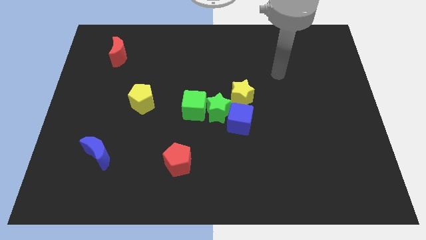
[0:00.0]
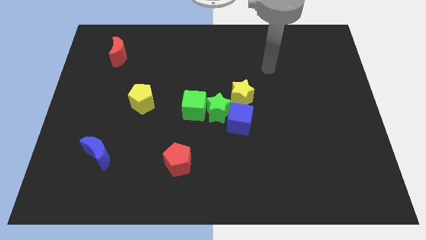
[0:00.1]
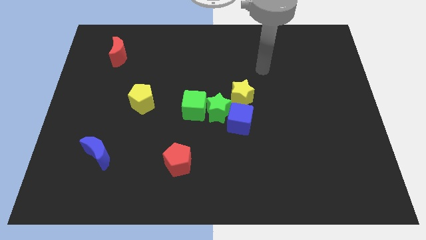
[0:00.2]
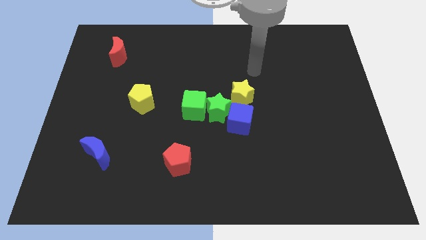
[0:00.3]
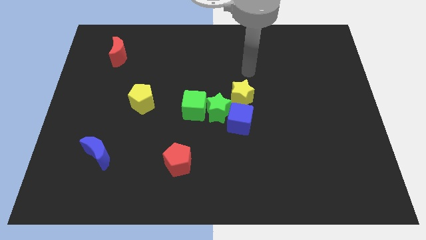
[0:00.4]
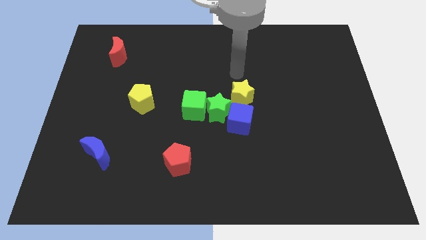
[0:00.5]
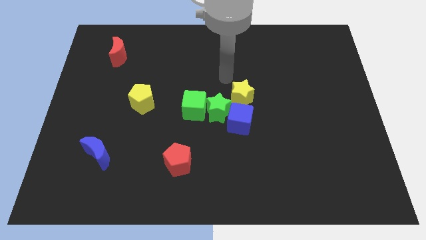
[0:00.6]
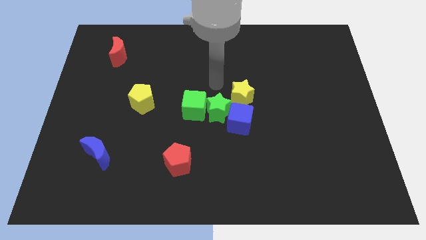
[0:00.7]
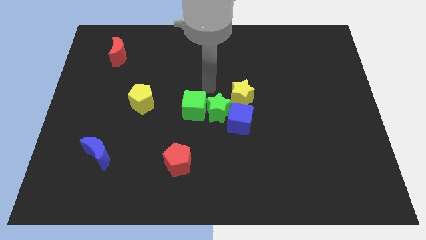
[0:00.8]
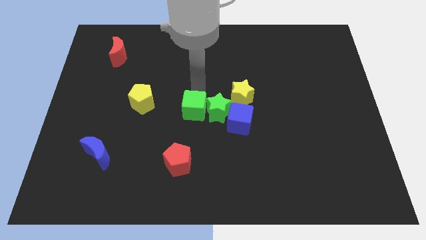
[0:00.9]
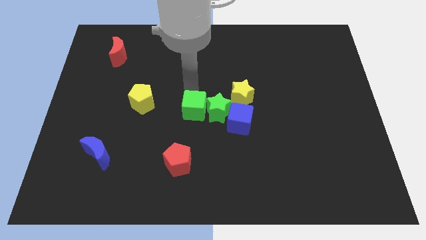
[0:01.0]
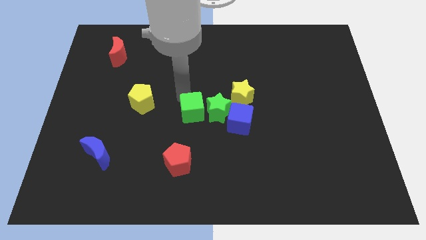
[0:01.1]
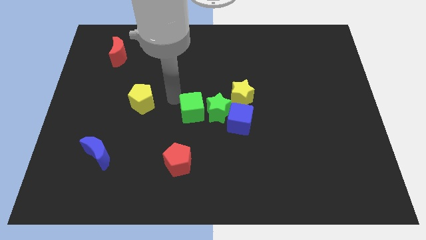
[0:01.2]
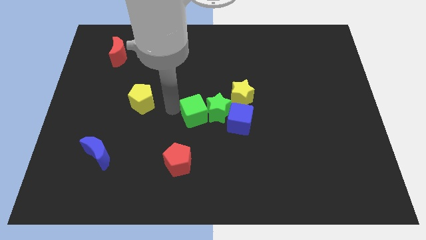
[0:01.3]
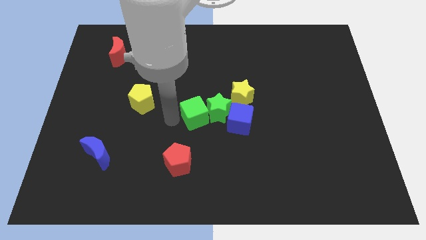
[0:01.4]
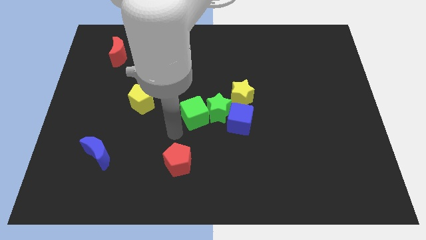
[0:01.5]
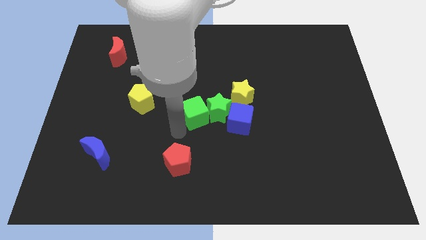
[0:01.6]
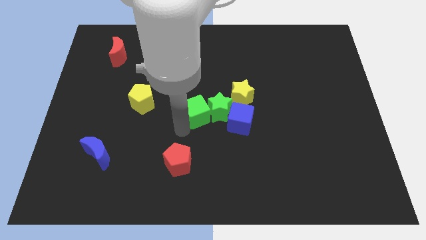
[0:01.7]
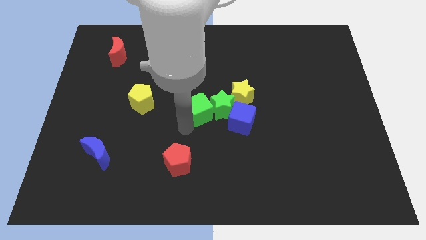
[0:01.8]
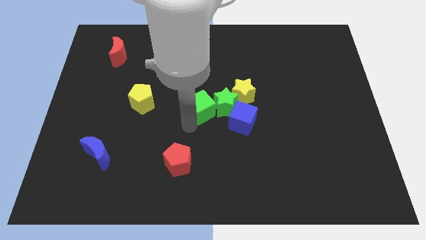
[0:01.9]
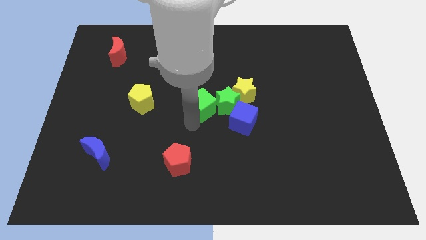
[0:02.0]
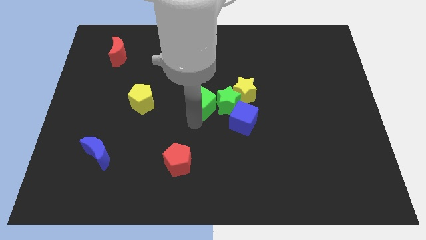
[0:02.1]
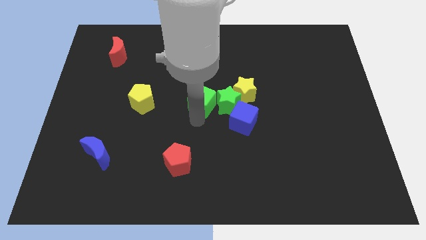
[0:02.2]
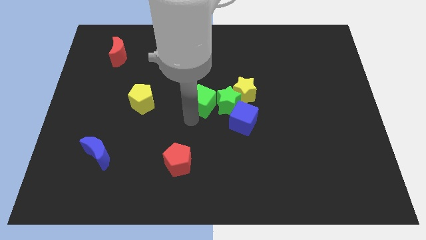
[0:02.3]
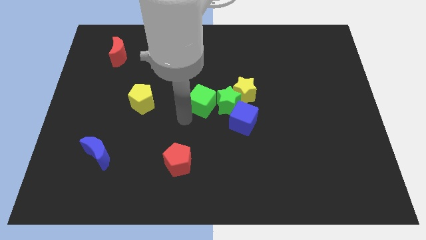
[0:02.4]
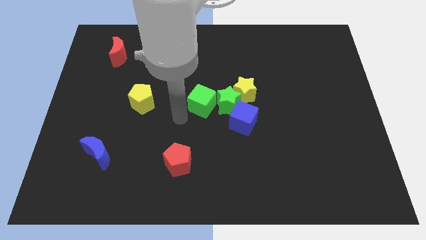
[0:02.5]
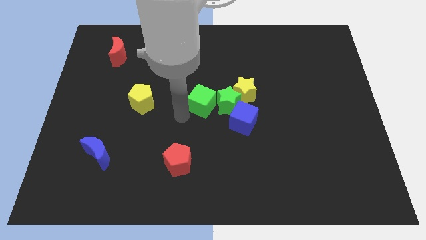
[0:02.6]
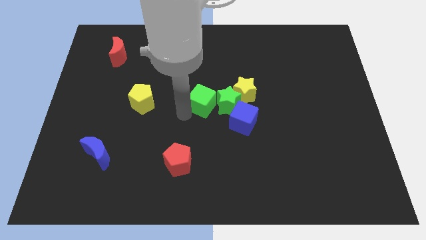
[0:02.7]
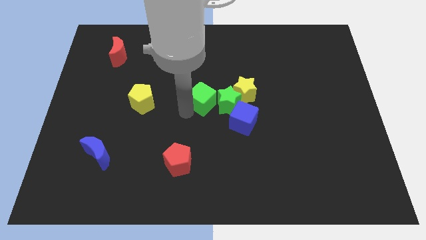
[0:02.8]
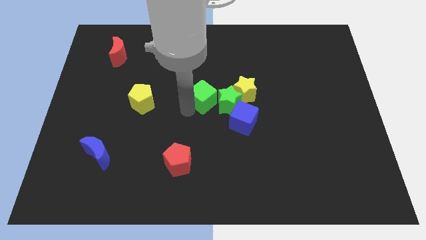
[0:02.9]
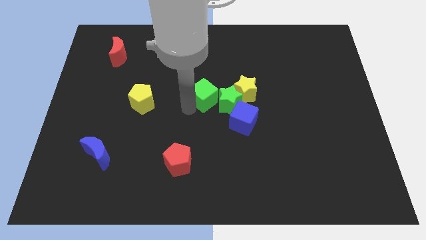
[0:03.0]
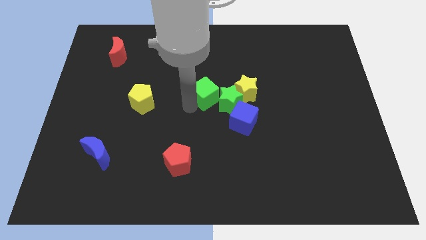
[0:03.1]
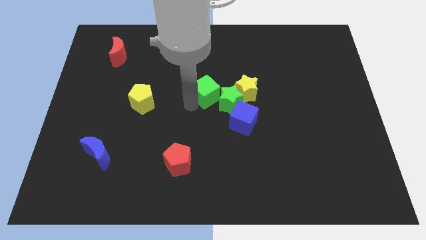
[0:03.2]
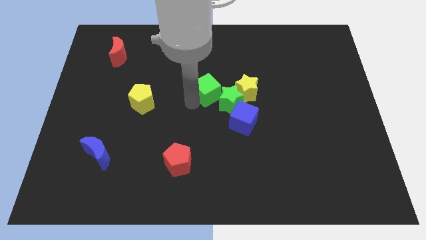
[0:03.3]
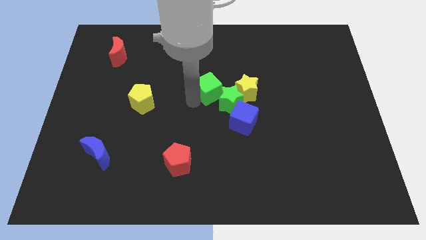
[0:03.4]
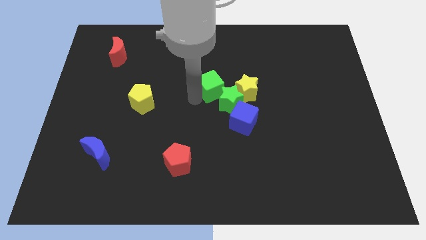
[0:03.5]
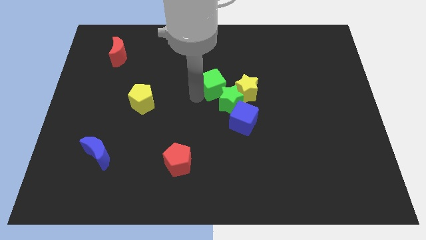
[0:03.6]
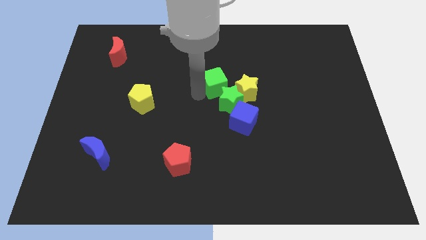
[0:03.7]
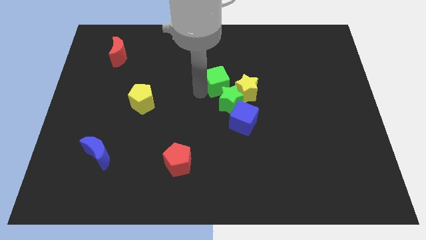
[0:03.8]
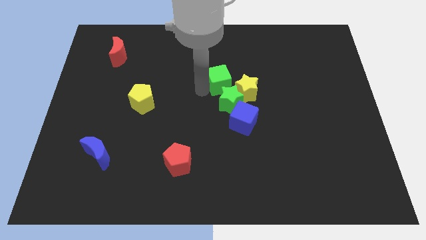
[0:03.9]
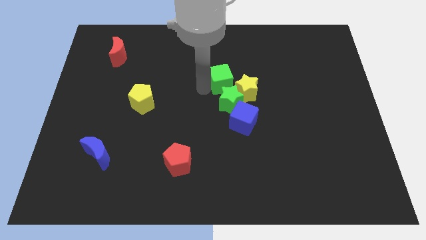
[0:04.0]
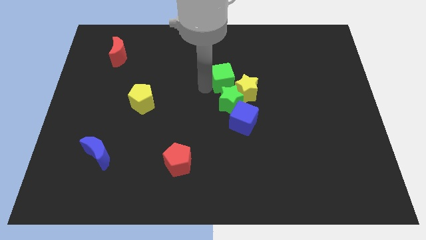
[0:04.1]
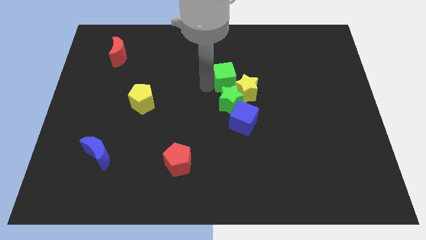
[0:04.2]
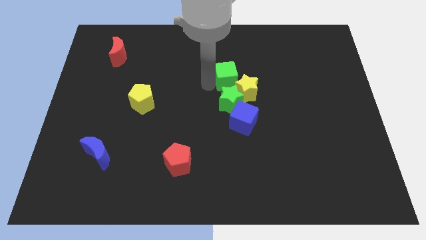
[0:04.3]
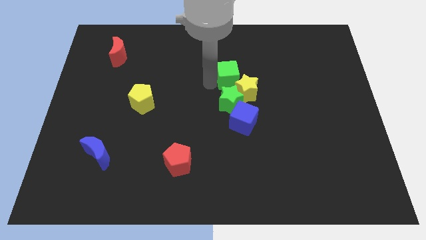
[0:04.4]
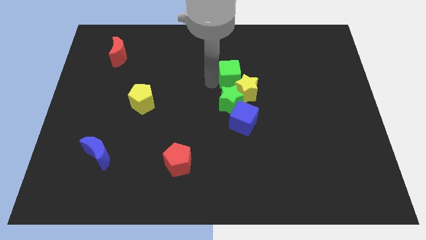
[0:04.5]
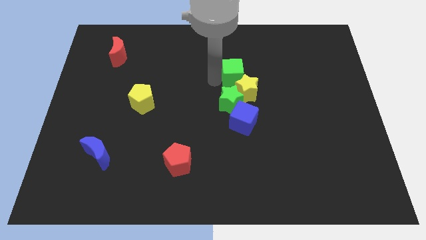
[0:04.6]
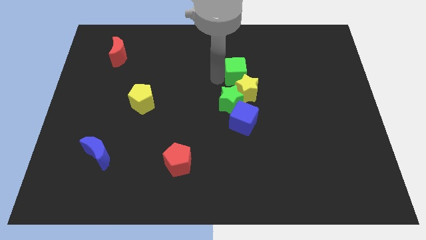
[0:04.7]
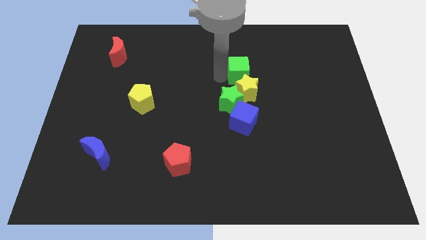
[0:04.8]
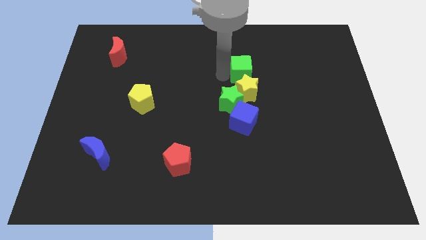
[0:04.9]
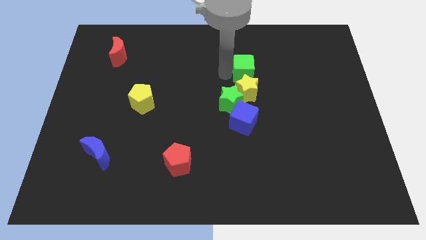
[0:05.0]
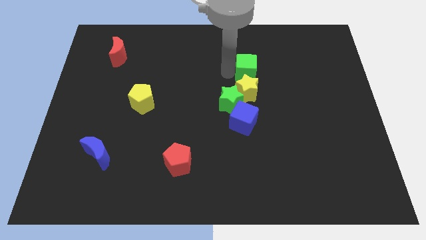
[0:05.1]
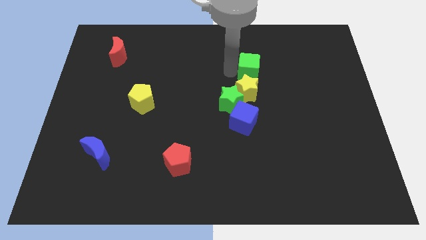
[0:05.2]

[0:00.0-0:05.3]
put the green cube to the top right of the yellow star

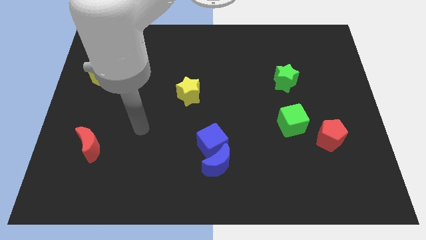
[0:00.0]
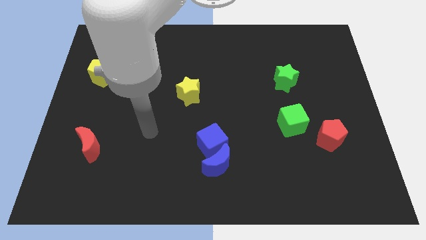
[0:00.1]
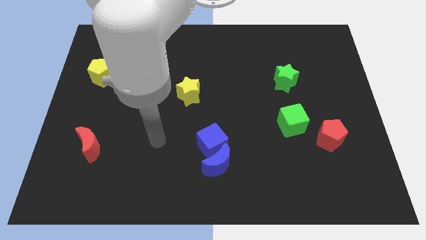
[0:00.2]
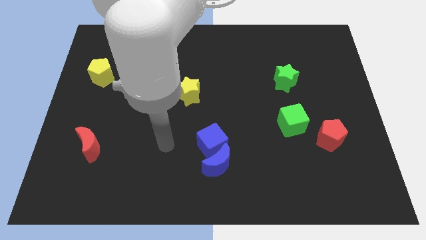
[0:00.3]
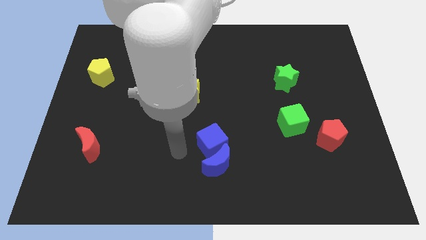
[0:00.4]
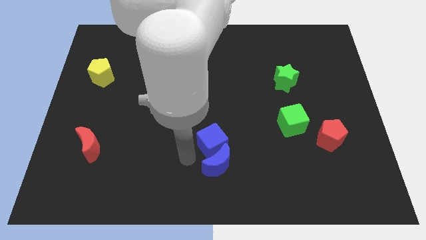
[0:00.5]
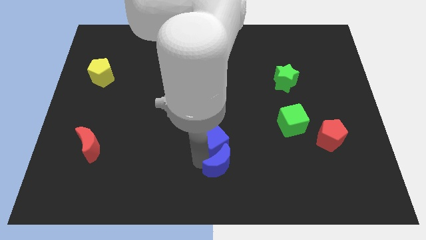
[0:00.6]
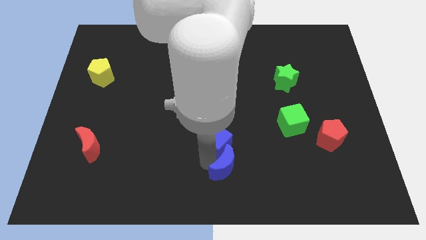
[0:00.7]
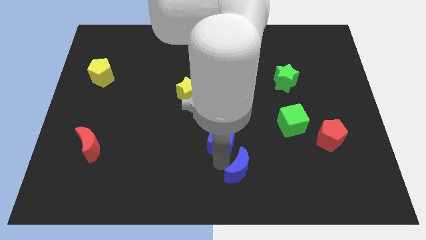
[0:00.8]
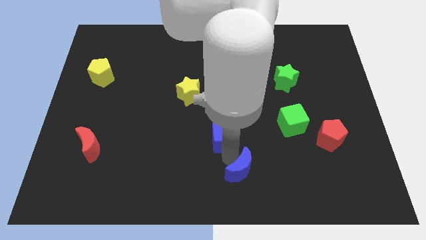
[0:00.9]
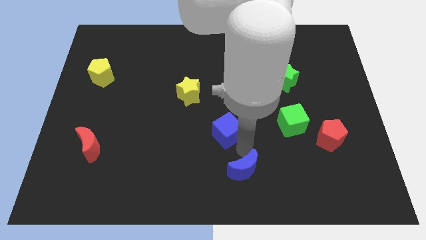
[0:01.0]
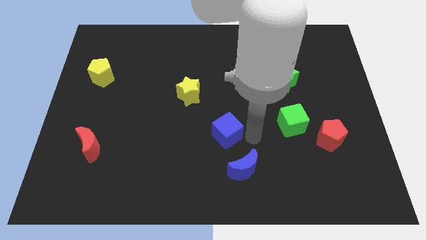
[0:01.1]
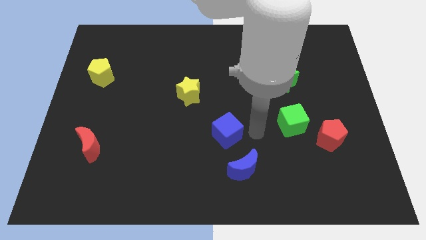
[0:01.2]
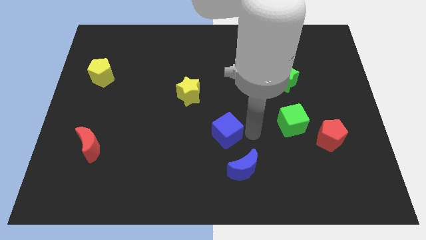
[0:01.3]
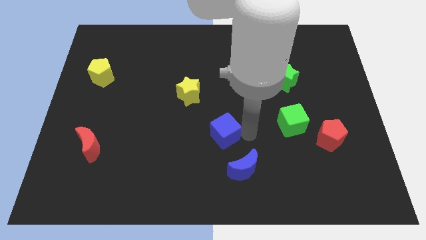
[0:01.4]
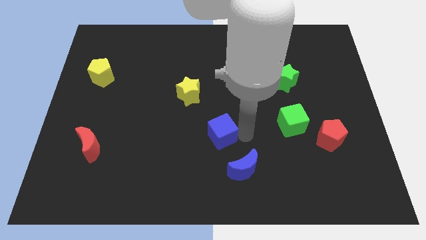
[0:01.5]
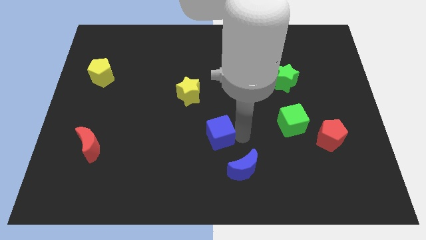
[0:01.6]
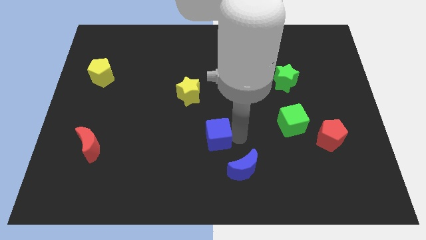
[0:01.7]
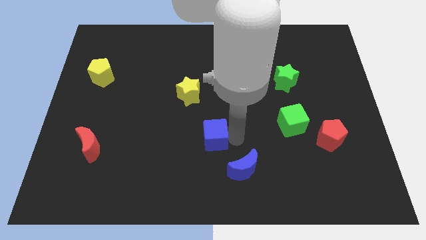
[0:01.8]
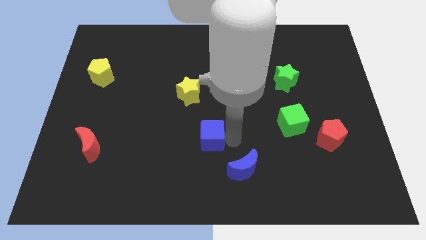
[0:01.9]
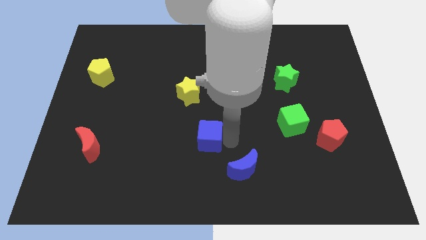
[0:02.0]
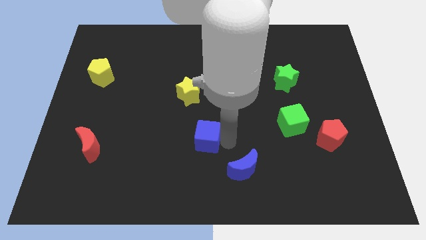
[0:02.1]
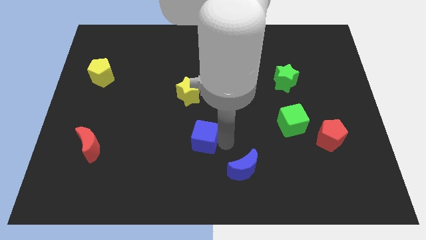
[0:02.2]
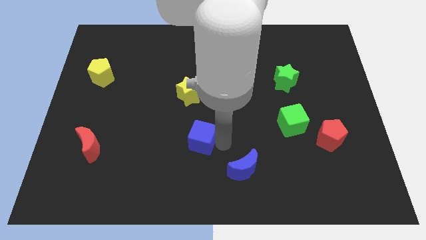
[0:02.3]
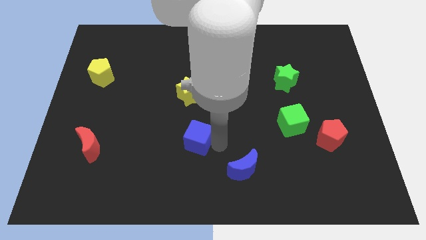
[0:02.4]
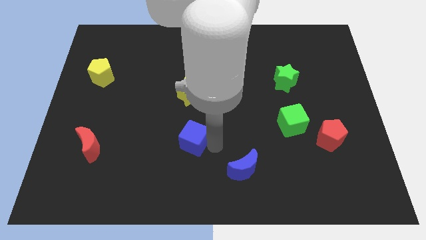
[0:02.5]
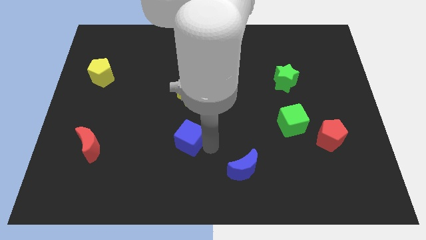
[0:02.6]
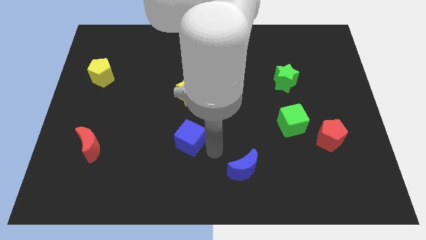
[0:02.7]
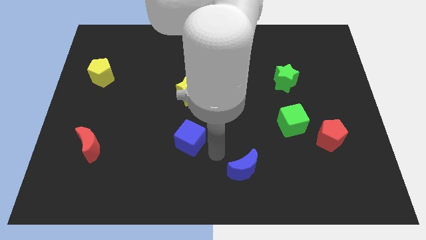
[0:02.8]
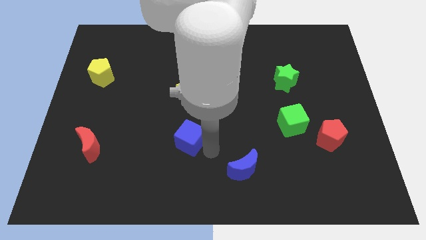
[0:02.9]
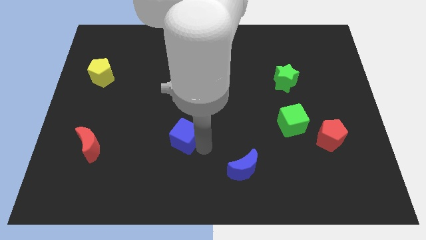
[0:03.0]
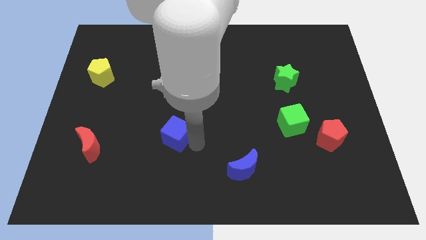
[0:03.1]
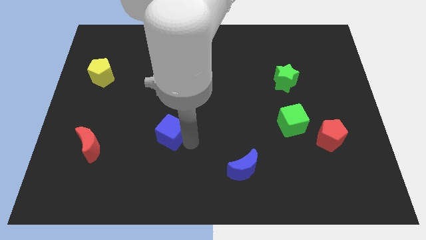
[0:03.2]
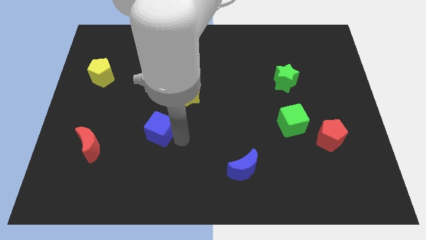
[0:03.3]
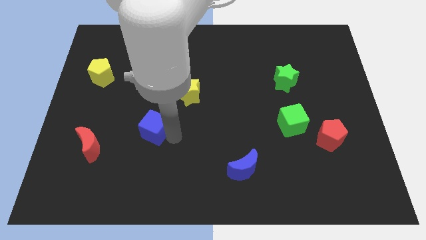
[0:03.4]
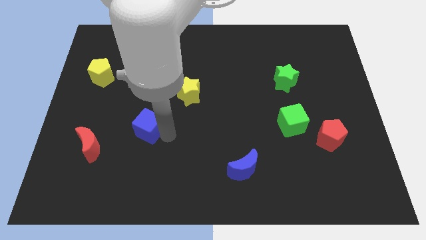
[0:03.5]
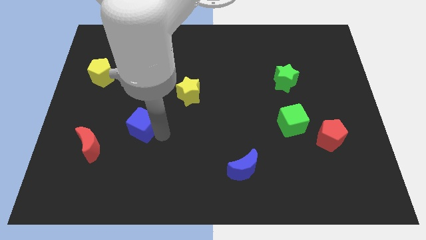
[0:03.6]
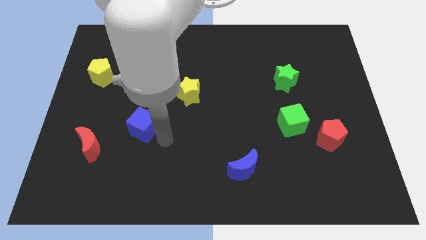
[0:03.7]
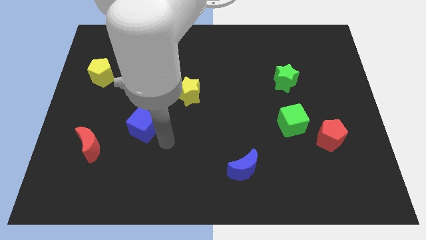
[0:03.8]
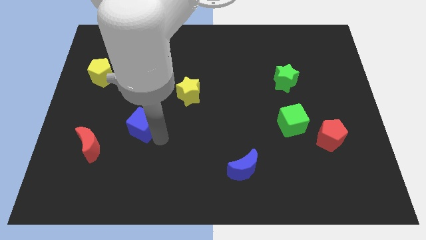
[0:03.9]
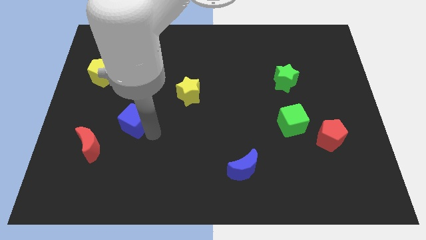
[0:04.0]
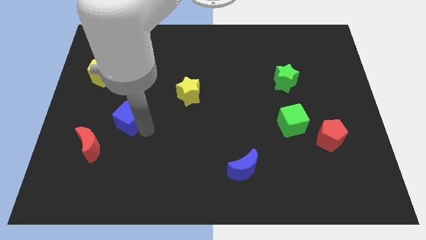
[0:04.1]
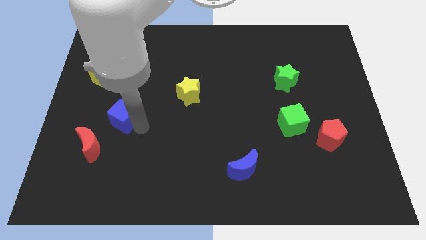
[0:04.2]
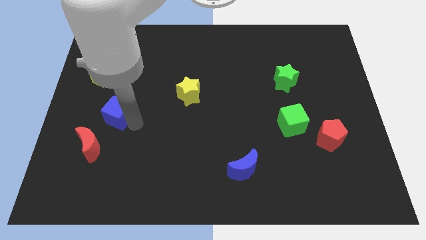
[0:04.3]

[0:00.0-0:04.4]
push the blue cube above the red moon
